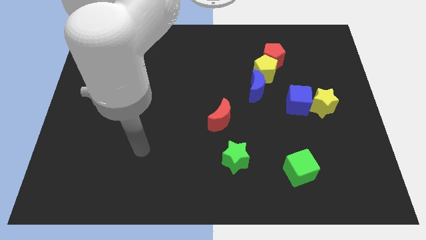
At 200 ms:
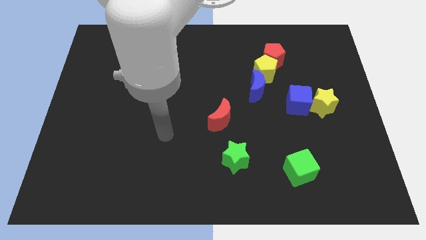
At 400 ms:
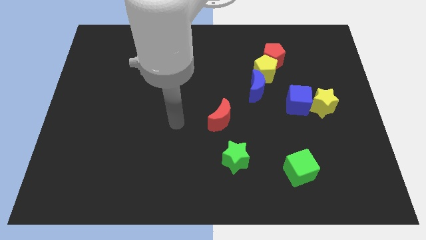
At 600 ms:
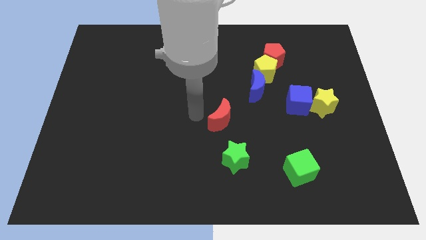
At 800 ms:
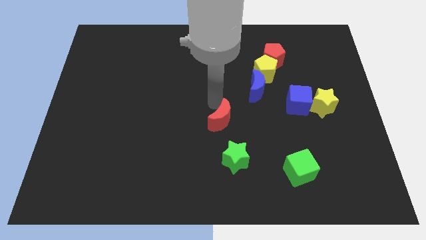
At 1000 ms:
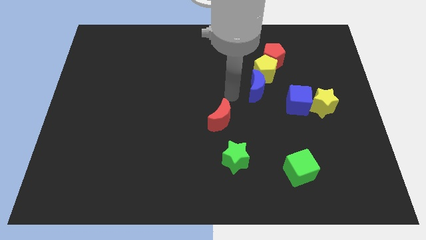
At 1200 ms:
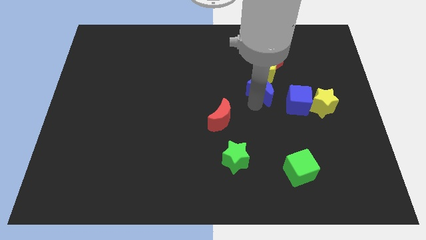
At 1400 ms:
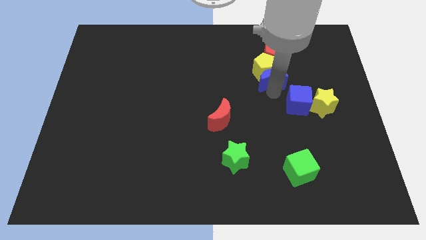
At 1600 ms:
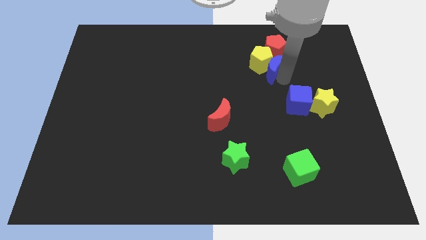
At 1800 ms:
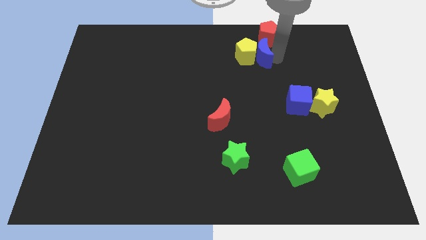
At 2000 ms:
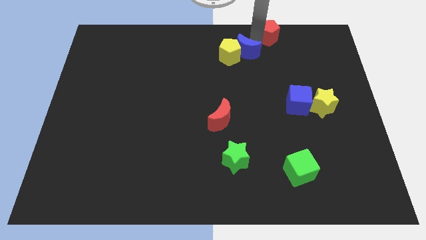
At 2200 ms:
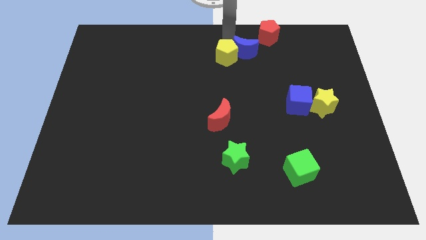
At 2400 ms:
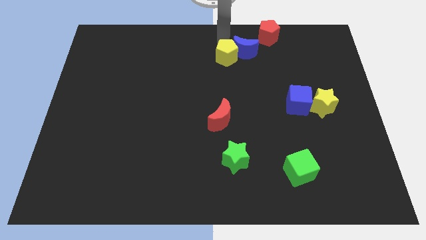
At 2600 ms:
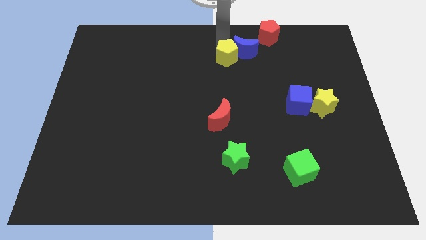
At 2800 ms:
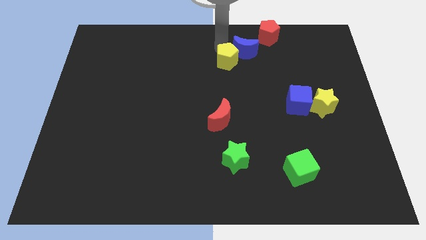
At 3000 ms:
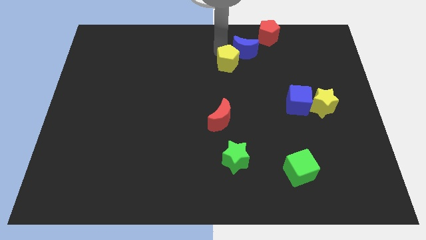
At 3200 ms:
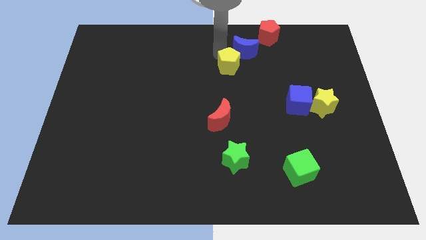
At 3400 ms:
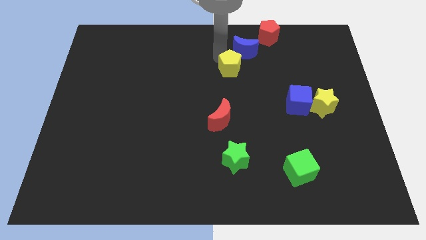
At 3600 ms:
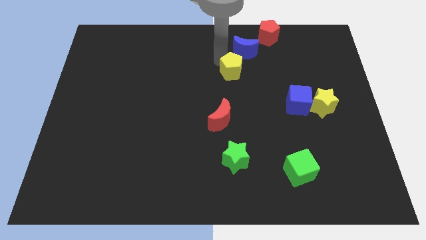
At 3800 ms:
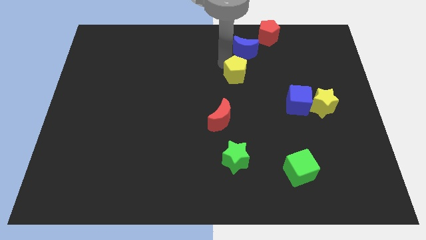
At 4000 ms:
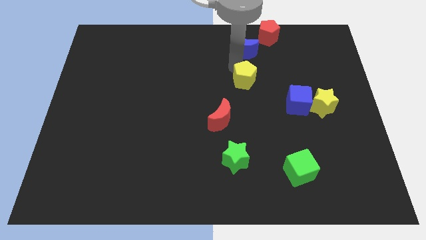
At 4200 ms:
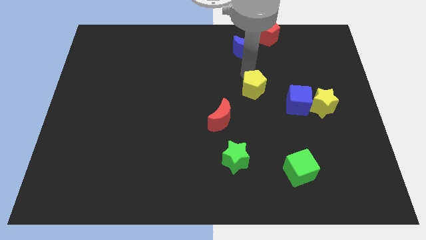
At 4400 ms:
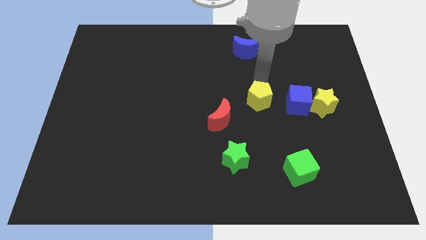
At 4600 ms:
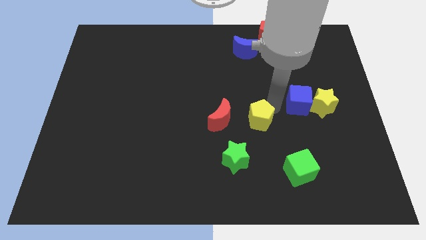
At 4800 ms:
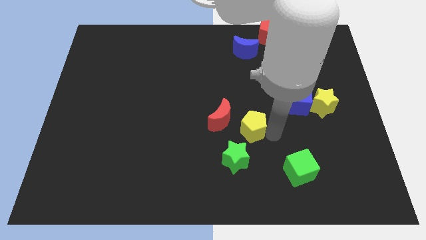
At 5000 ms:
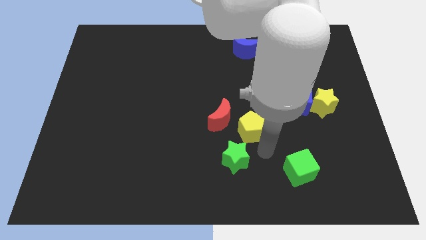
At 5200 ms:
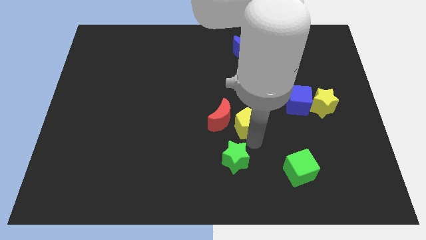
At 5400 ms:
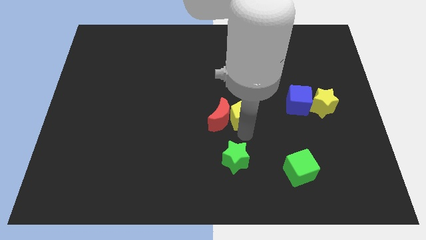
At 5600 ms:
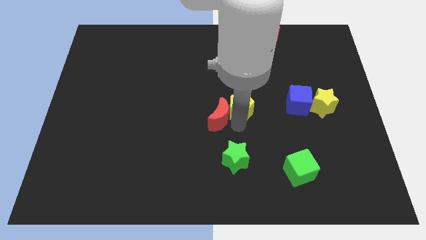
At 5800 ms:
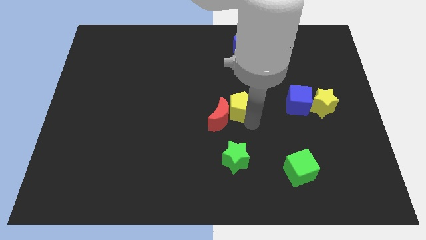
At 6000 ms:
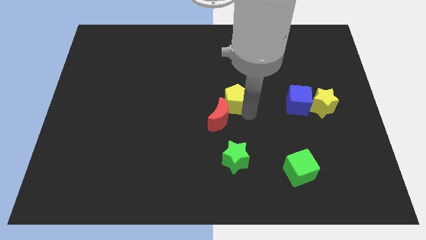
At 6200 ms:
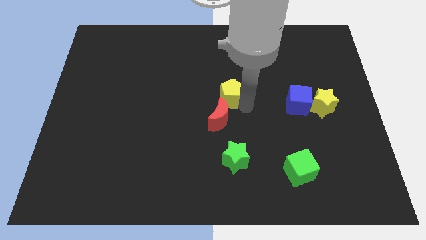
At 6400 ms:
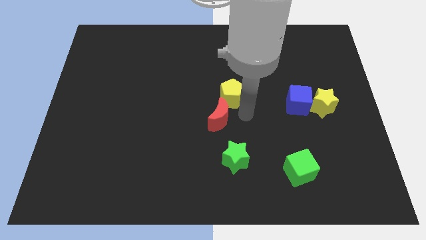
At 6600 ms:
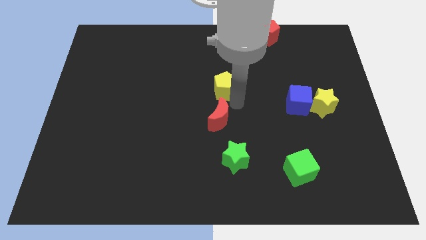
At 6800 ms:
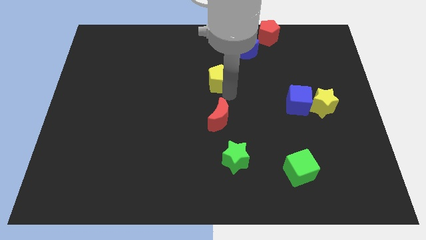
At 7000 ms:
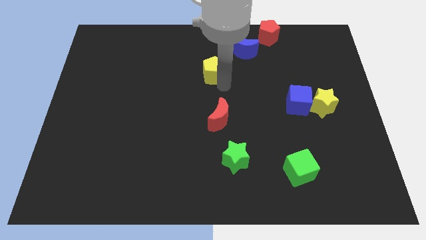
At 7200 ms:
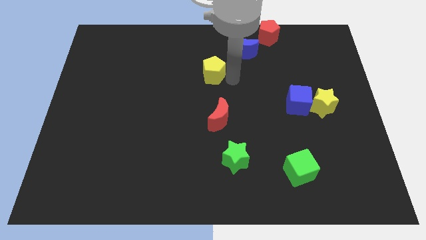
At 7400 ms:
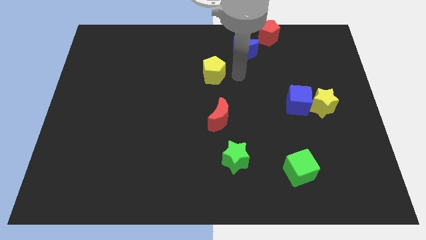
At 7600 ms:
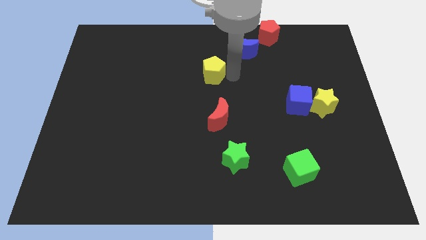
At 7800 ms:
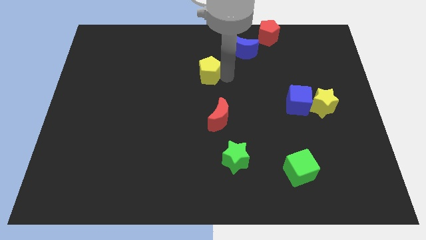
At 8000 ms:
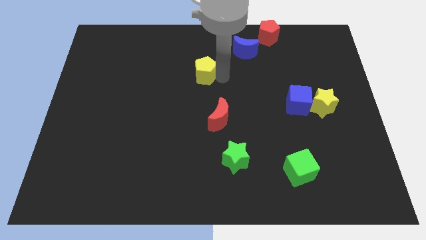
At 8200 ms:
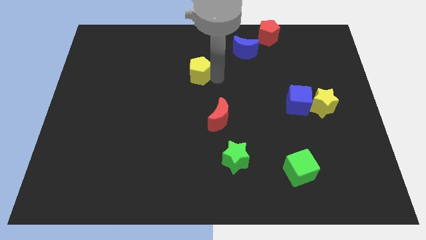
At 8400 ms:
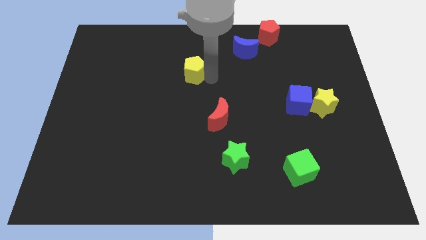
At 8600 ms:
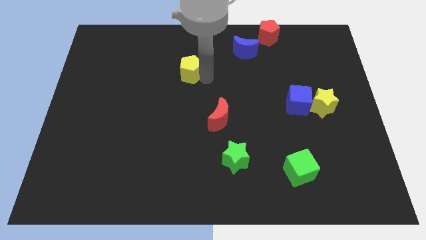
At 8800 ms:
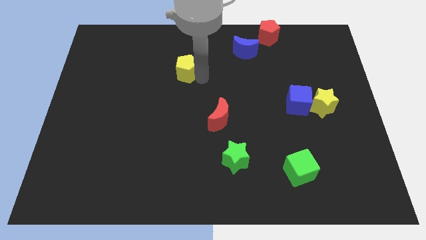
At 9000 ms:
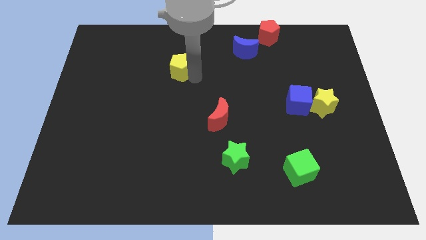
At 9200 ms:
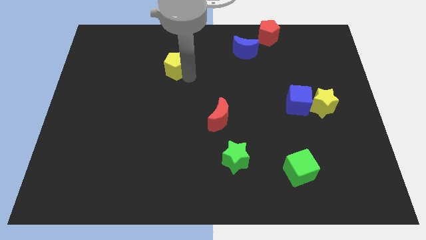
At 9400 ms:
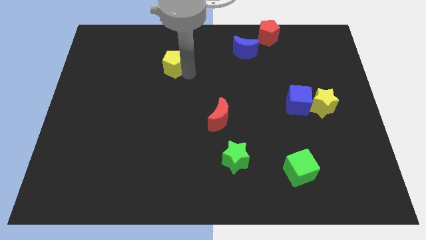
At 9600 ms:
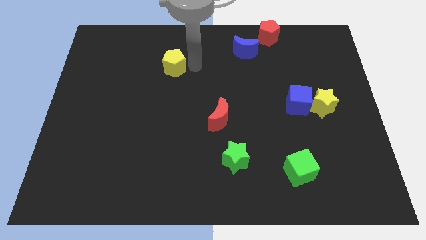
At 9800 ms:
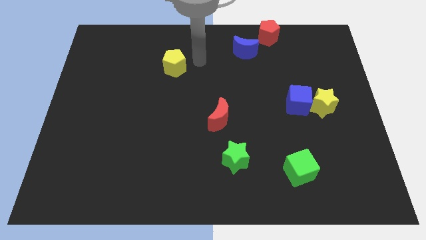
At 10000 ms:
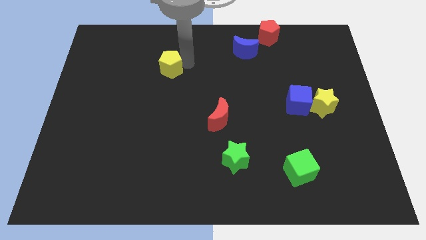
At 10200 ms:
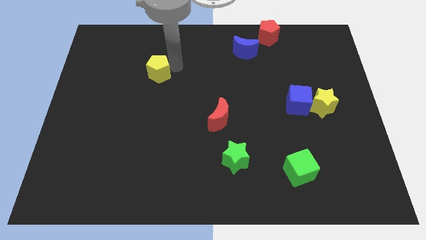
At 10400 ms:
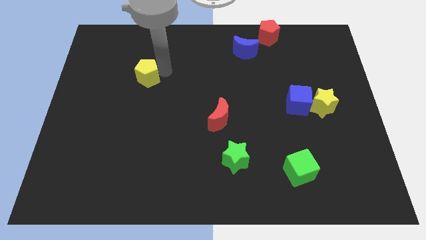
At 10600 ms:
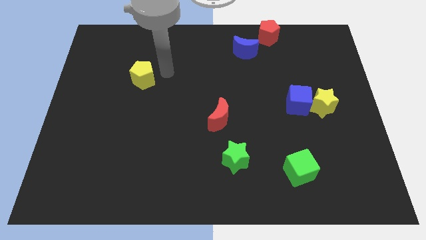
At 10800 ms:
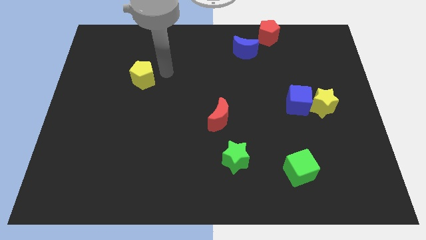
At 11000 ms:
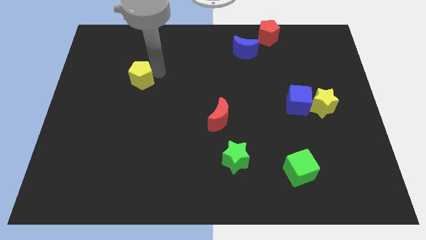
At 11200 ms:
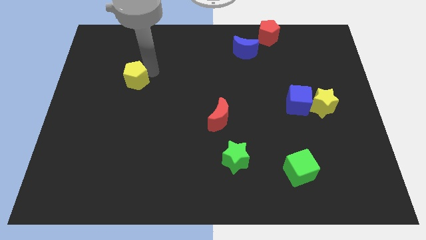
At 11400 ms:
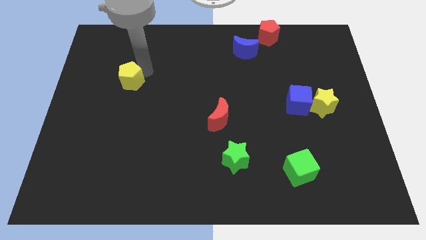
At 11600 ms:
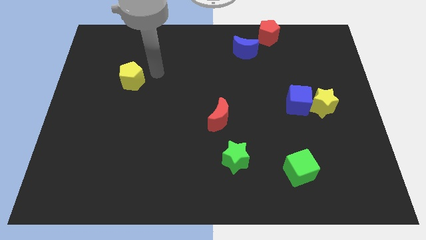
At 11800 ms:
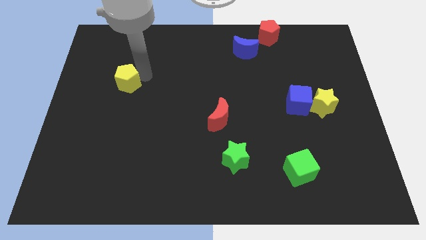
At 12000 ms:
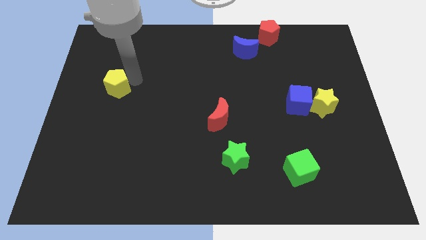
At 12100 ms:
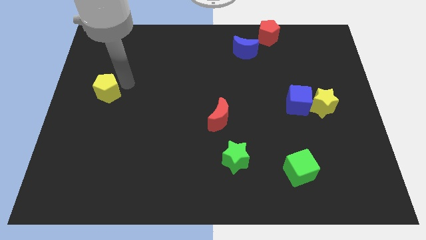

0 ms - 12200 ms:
slide the yellow pentagon to the center left
